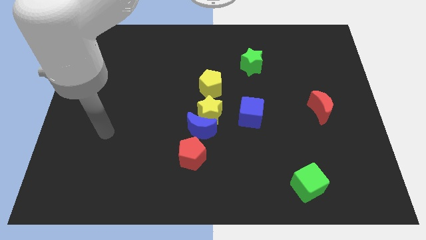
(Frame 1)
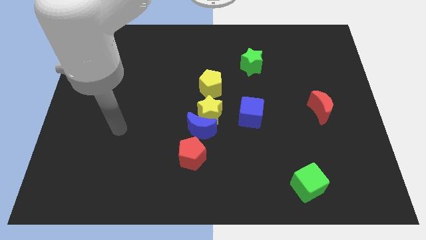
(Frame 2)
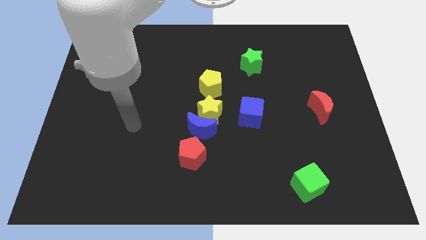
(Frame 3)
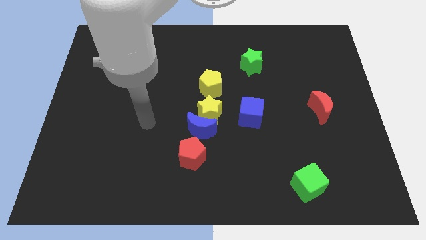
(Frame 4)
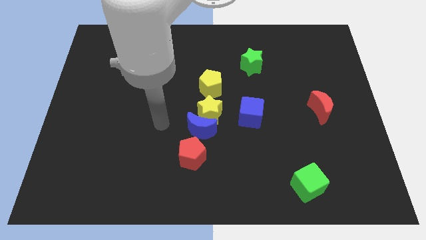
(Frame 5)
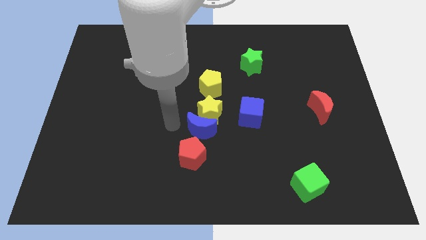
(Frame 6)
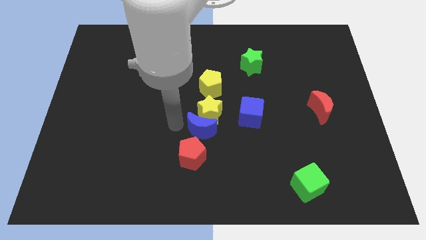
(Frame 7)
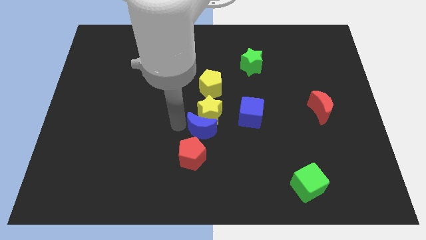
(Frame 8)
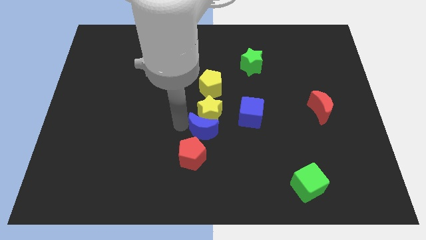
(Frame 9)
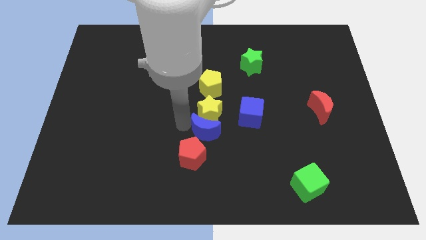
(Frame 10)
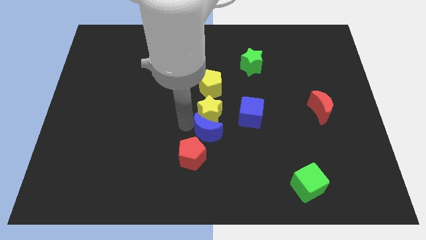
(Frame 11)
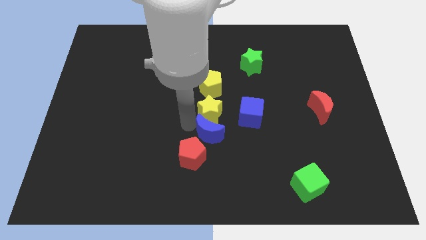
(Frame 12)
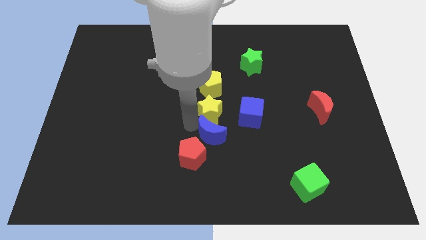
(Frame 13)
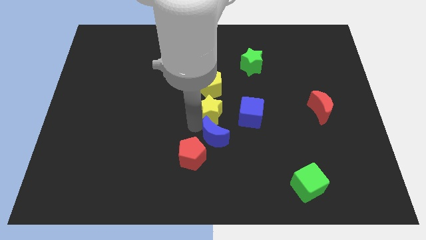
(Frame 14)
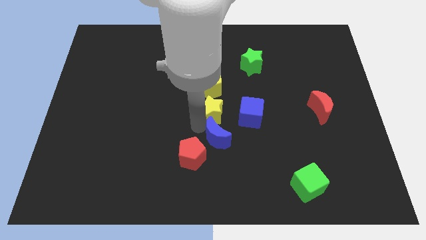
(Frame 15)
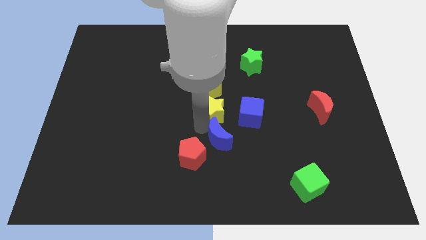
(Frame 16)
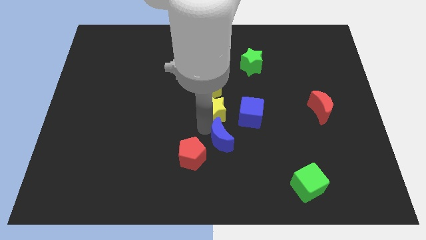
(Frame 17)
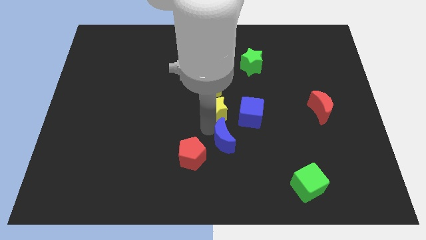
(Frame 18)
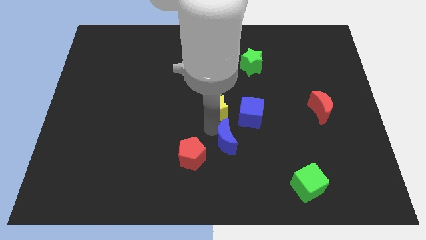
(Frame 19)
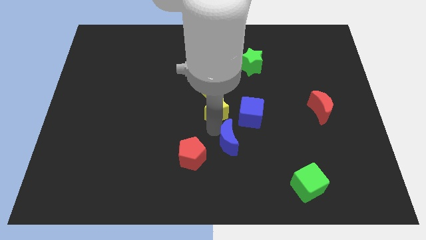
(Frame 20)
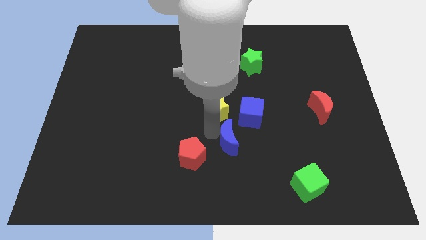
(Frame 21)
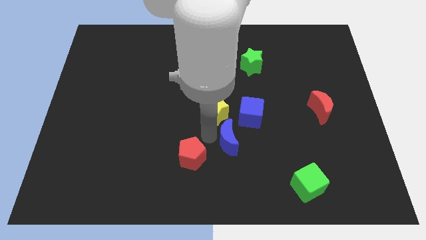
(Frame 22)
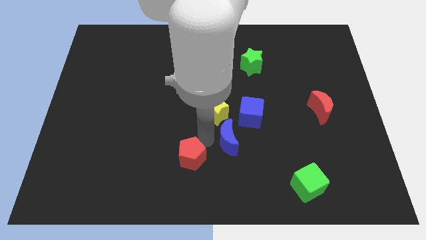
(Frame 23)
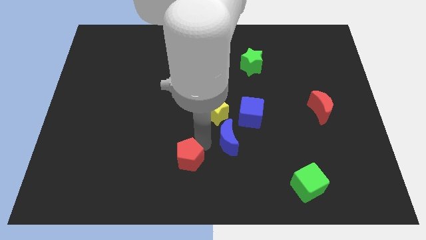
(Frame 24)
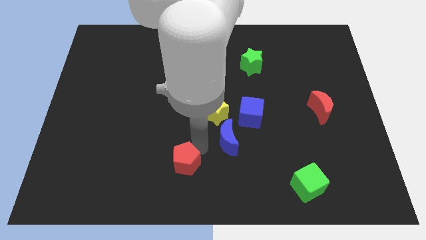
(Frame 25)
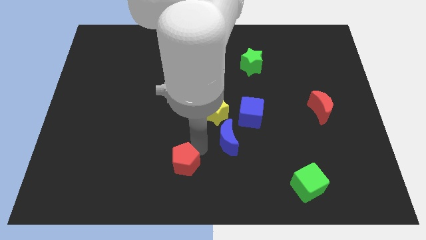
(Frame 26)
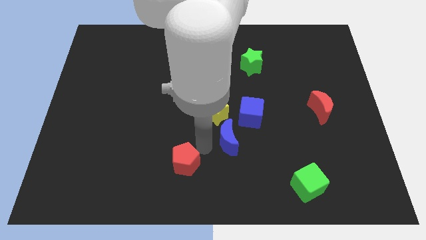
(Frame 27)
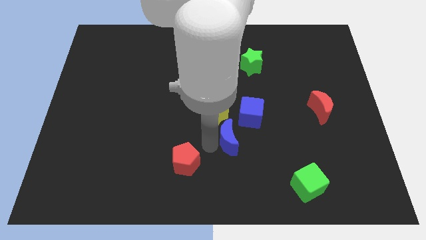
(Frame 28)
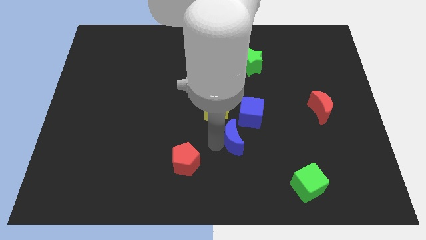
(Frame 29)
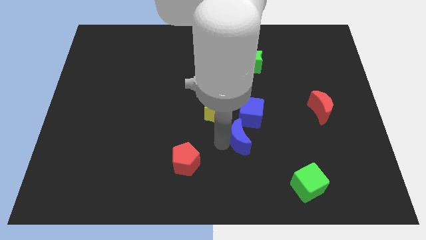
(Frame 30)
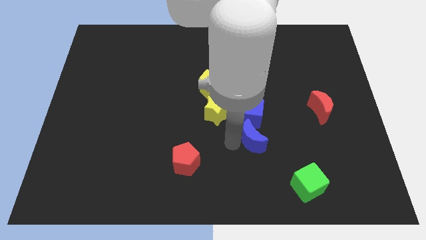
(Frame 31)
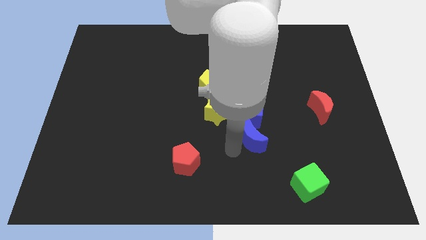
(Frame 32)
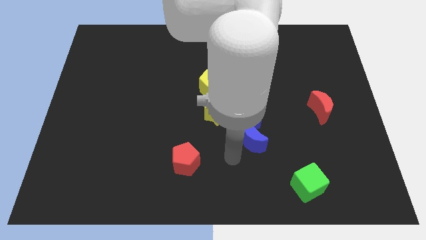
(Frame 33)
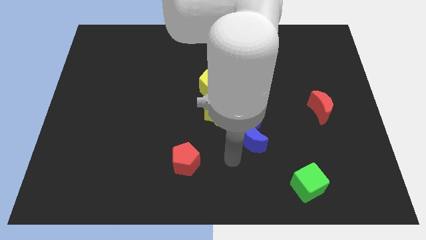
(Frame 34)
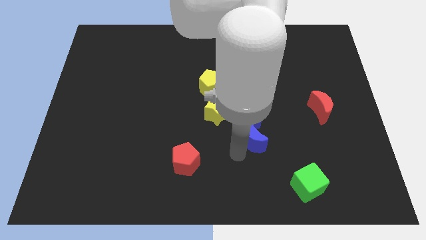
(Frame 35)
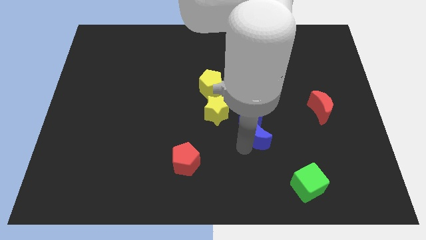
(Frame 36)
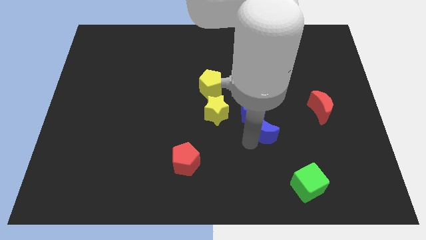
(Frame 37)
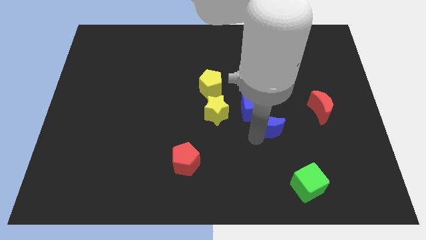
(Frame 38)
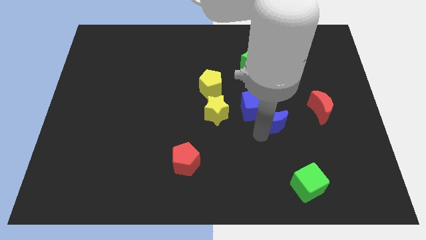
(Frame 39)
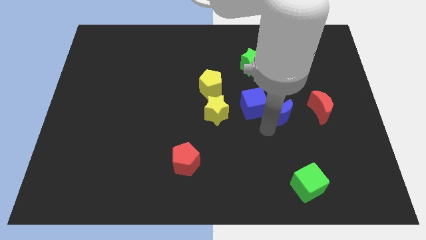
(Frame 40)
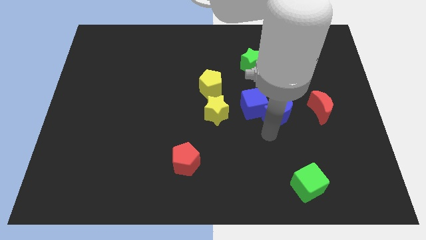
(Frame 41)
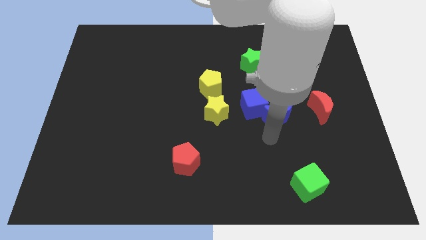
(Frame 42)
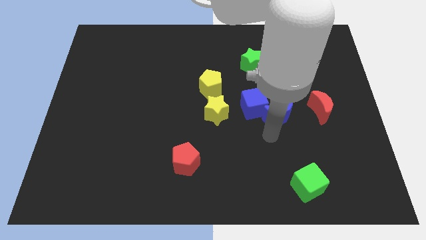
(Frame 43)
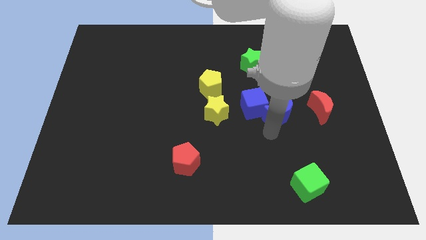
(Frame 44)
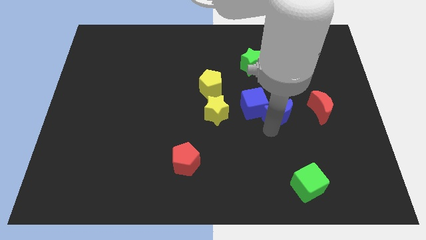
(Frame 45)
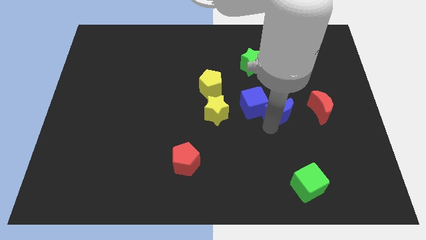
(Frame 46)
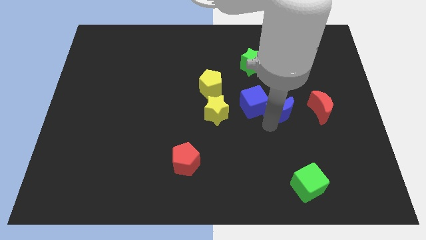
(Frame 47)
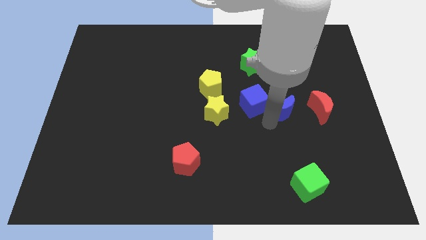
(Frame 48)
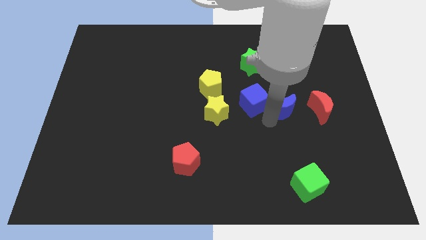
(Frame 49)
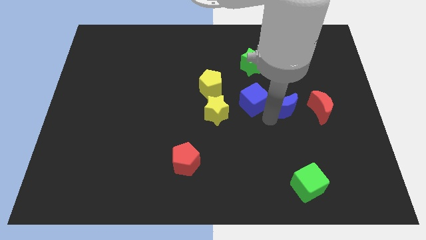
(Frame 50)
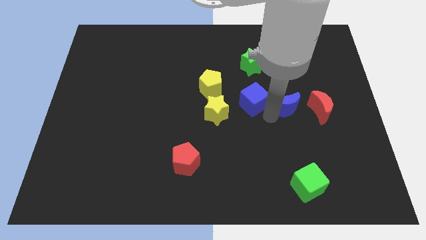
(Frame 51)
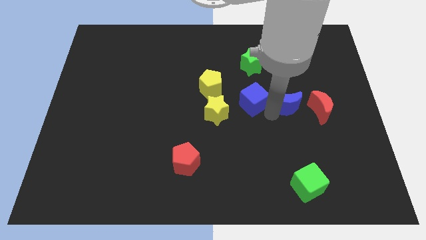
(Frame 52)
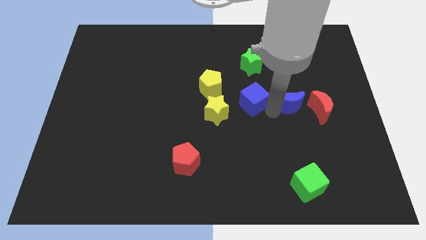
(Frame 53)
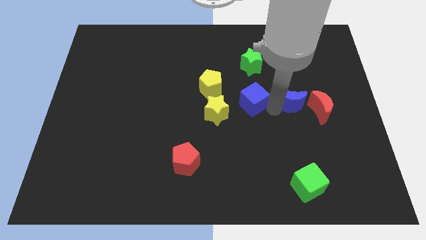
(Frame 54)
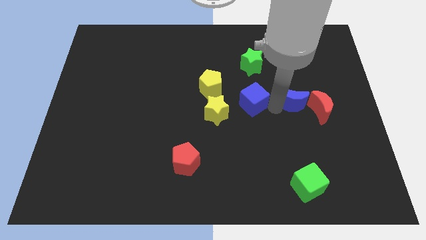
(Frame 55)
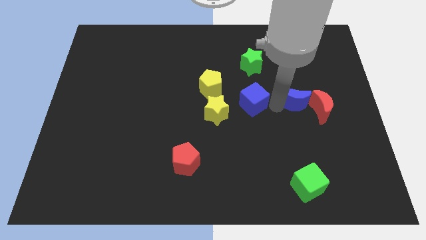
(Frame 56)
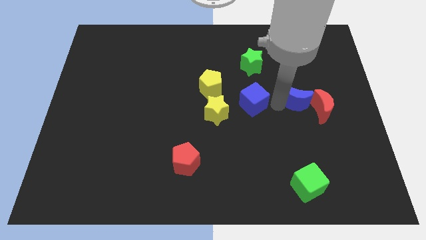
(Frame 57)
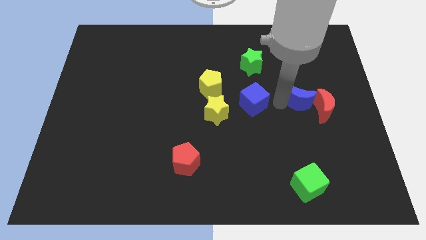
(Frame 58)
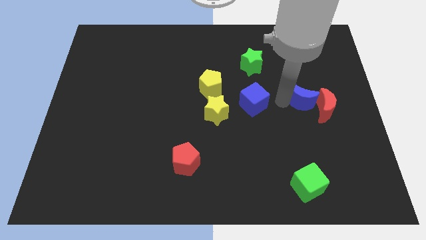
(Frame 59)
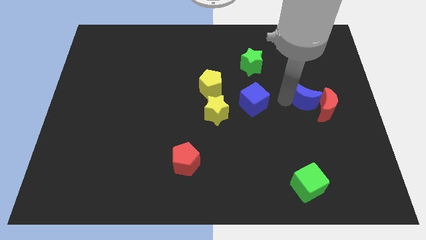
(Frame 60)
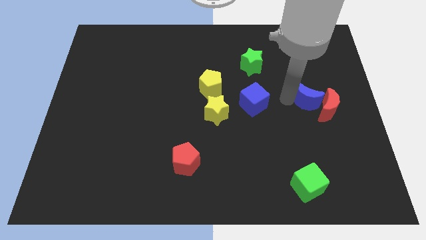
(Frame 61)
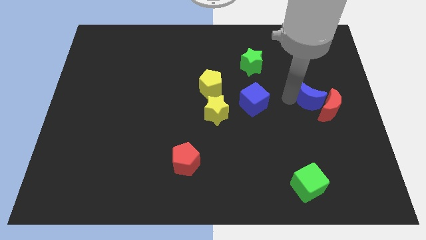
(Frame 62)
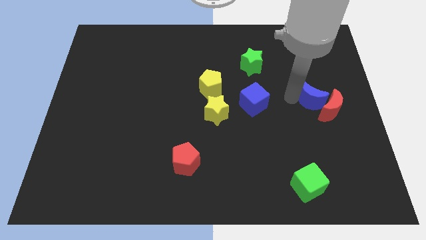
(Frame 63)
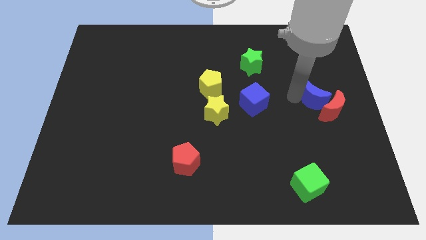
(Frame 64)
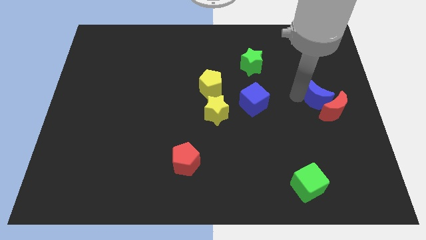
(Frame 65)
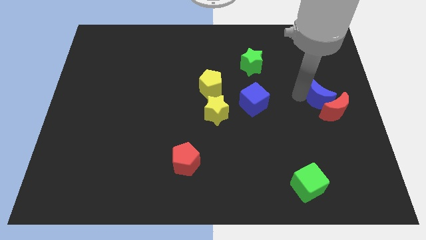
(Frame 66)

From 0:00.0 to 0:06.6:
slide the blue moon to the right side of the board

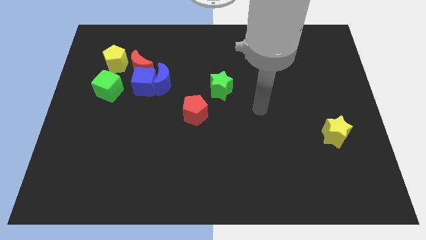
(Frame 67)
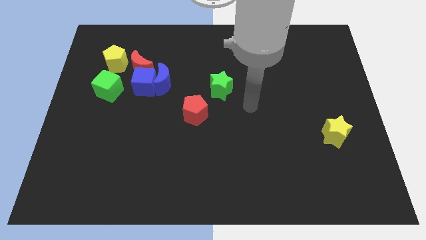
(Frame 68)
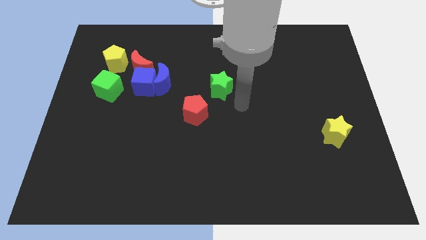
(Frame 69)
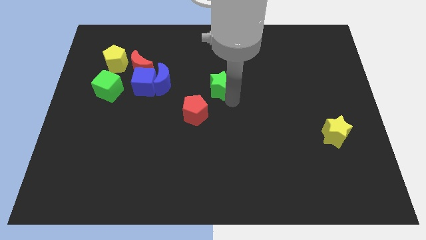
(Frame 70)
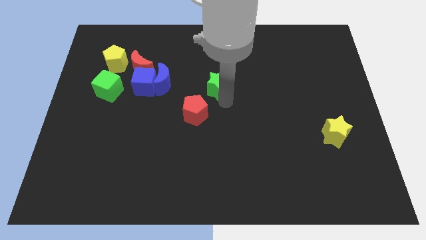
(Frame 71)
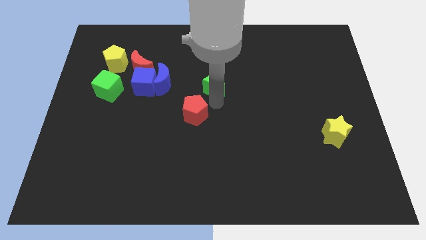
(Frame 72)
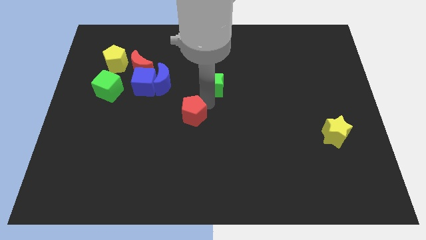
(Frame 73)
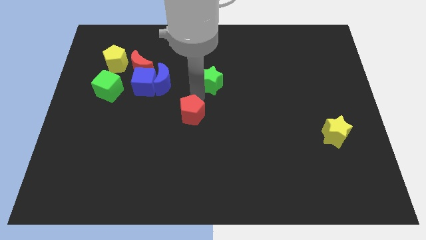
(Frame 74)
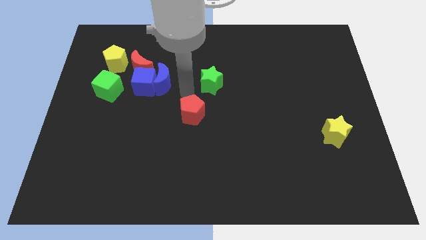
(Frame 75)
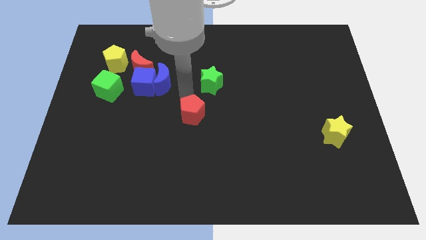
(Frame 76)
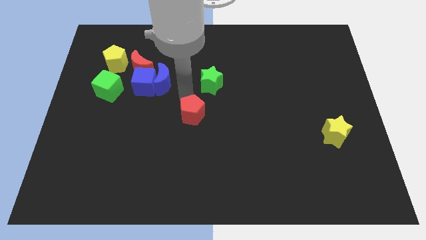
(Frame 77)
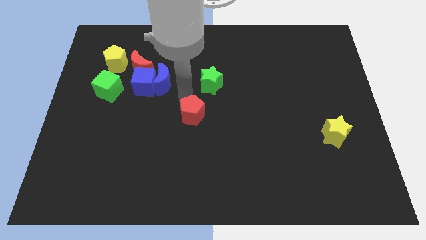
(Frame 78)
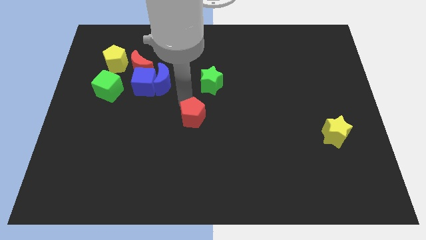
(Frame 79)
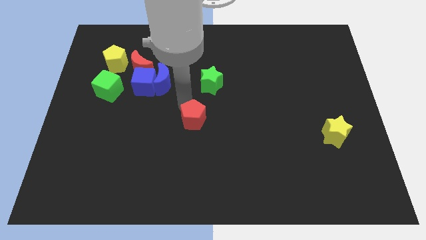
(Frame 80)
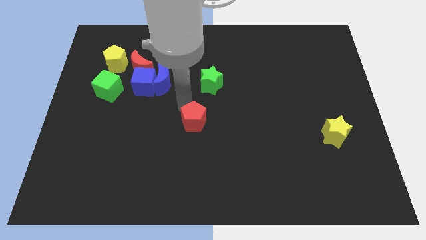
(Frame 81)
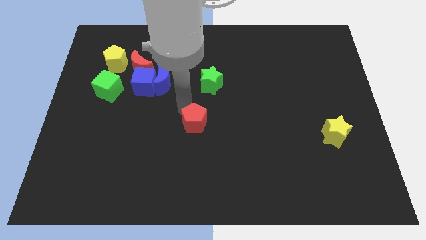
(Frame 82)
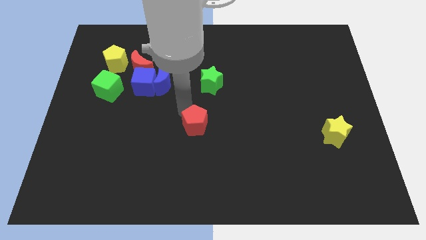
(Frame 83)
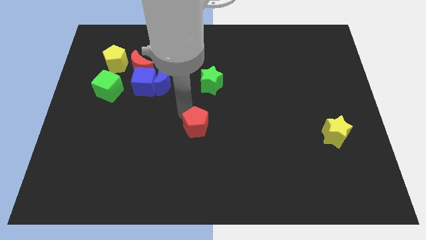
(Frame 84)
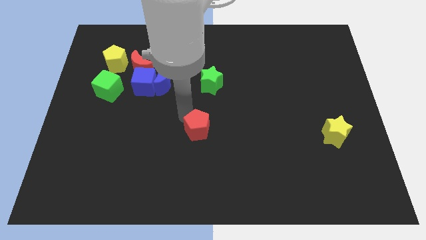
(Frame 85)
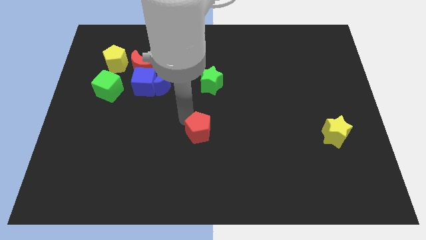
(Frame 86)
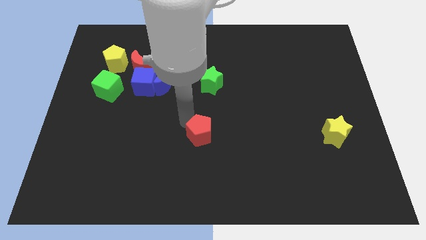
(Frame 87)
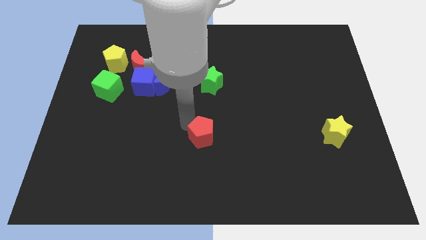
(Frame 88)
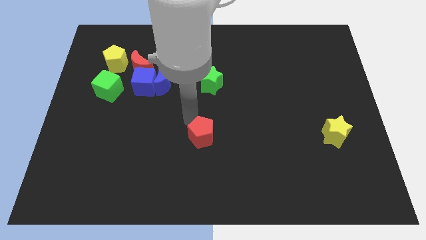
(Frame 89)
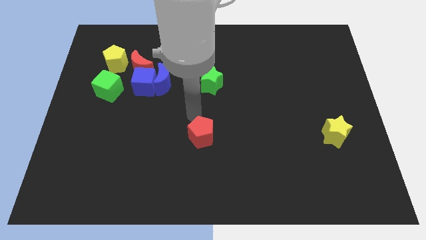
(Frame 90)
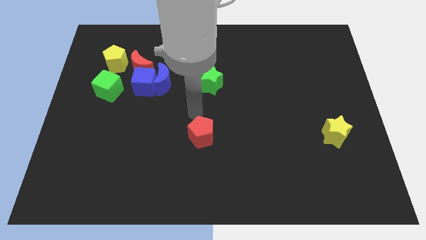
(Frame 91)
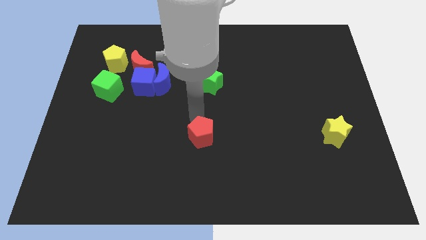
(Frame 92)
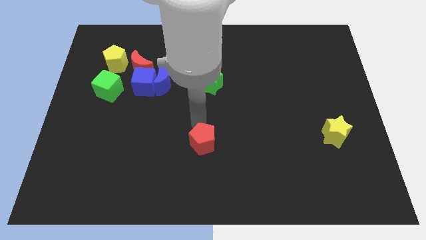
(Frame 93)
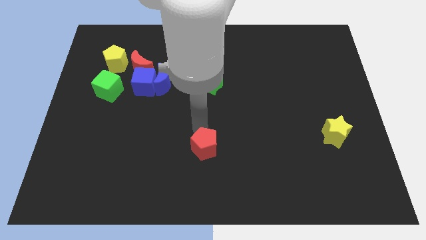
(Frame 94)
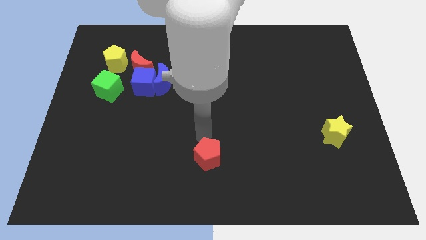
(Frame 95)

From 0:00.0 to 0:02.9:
slide the red pentagon to the bottom
